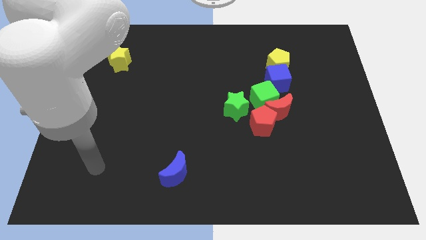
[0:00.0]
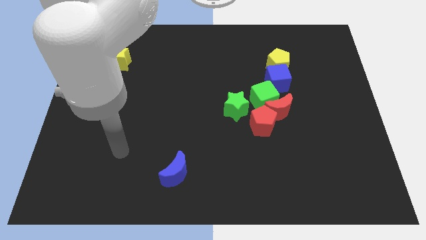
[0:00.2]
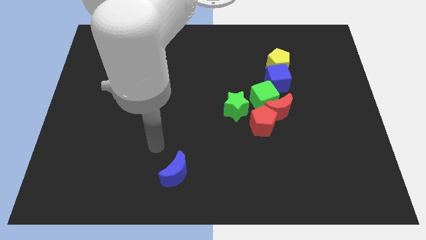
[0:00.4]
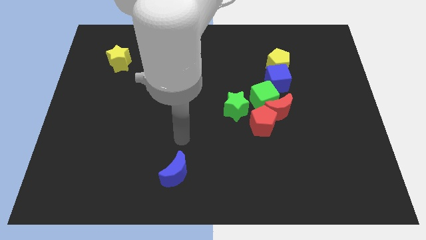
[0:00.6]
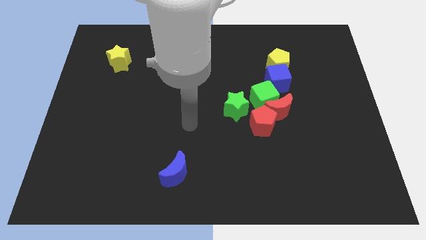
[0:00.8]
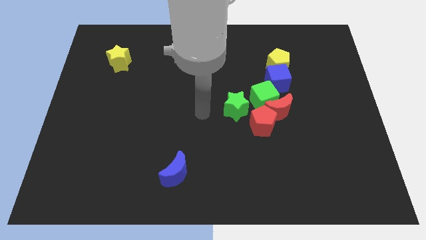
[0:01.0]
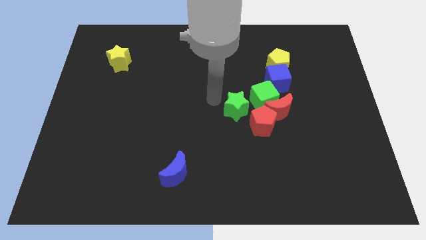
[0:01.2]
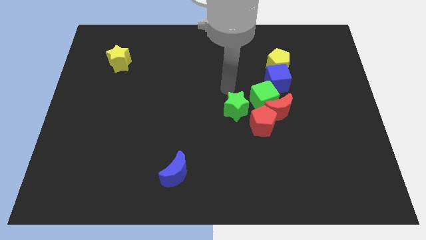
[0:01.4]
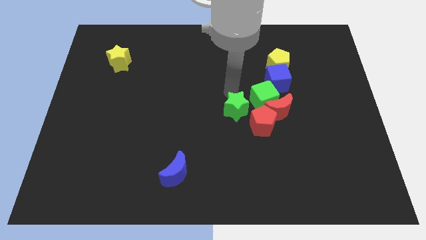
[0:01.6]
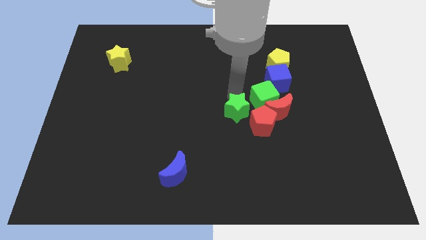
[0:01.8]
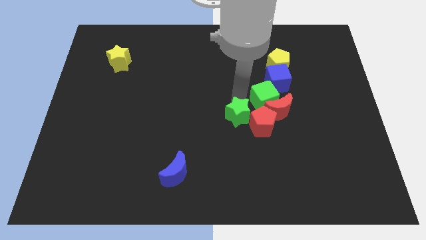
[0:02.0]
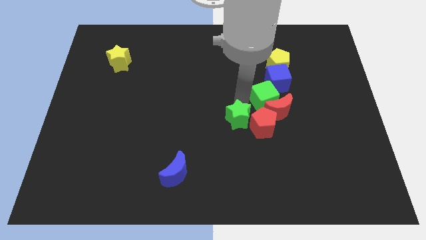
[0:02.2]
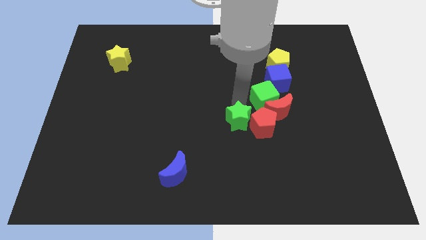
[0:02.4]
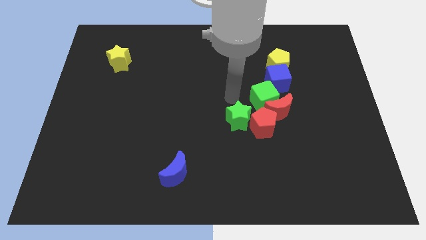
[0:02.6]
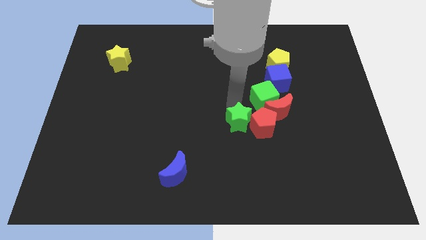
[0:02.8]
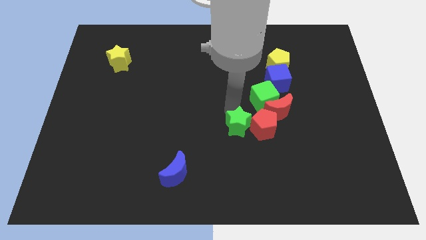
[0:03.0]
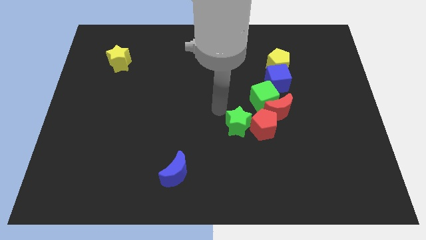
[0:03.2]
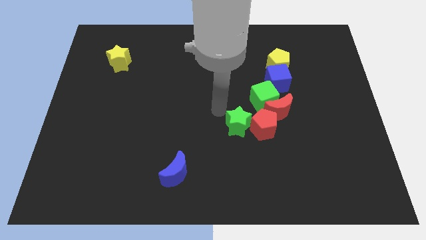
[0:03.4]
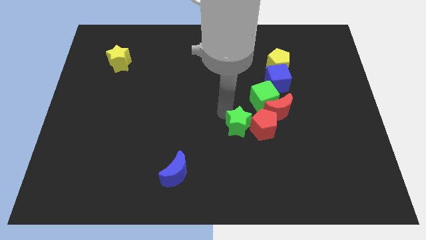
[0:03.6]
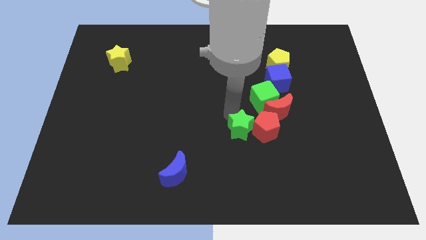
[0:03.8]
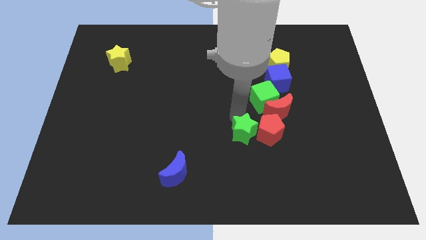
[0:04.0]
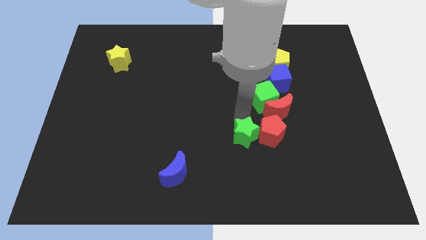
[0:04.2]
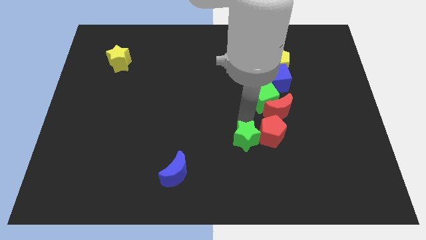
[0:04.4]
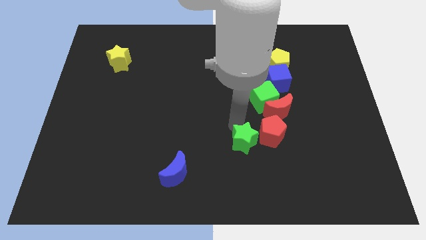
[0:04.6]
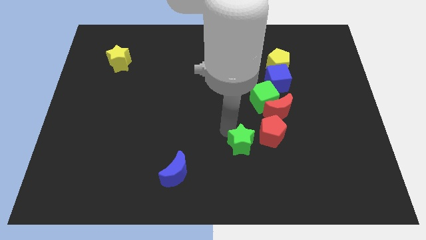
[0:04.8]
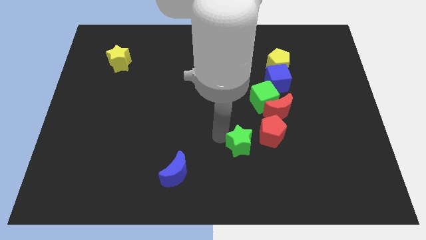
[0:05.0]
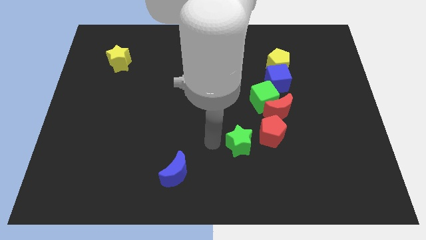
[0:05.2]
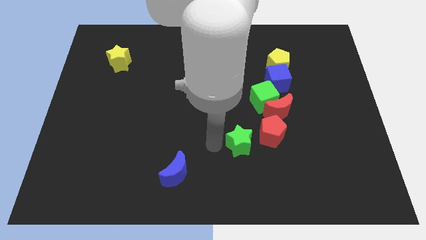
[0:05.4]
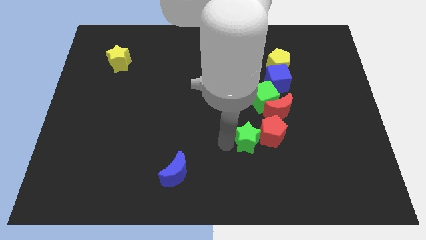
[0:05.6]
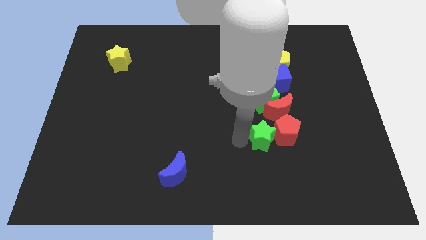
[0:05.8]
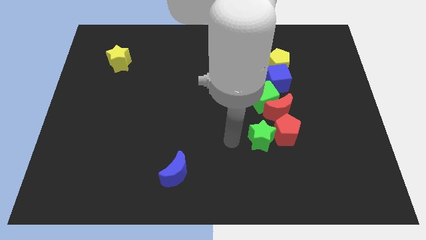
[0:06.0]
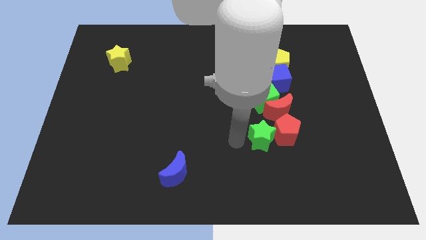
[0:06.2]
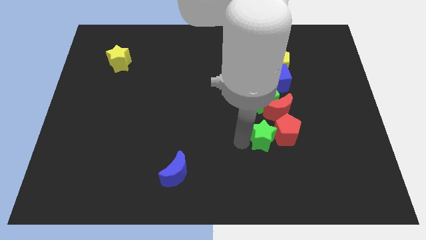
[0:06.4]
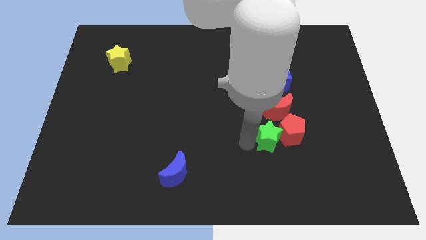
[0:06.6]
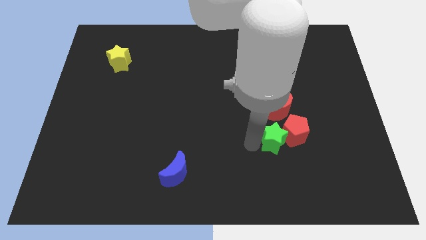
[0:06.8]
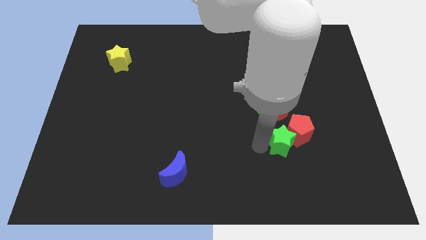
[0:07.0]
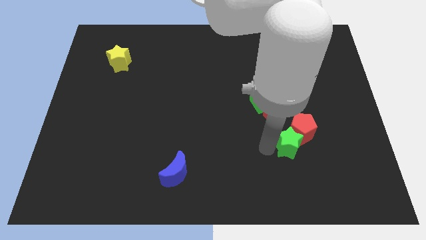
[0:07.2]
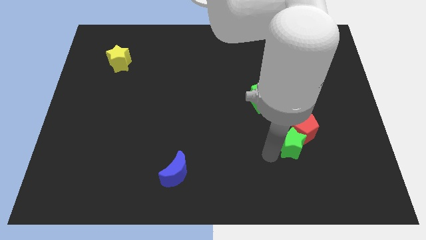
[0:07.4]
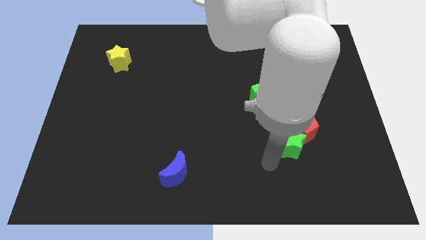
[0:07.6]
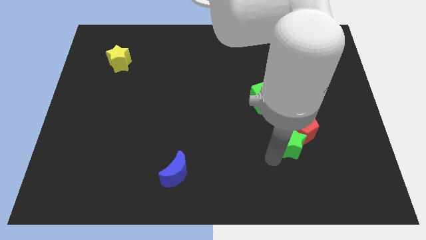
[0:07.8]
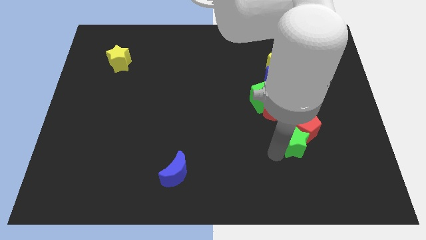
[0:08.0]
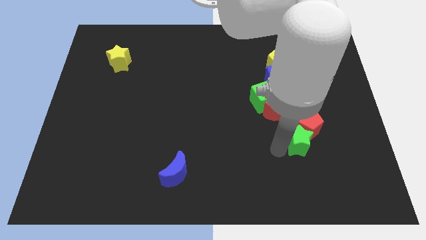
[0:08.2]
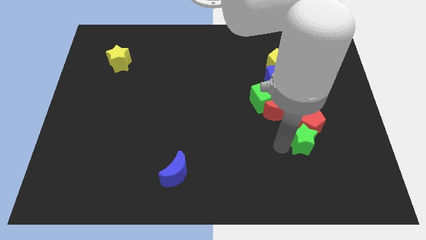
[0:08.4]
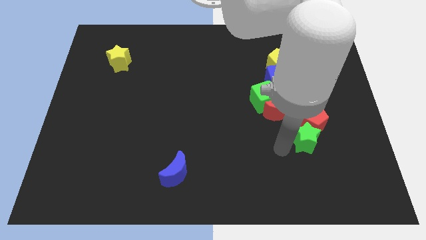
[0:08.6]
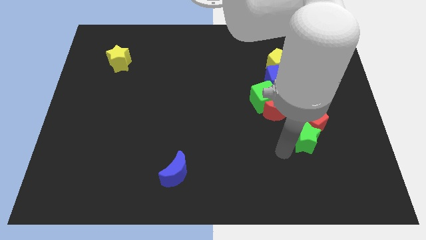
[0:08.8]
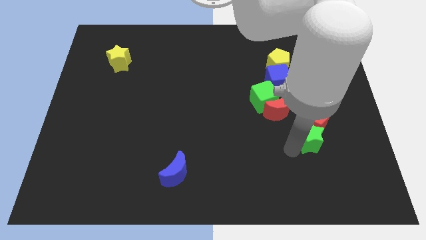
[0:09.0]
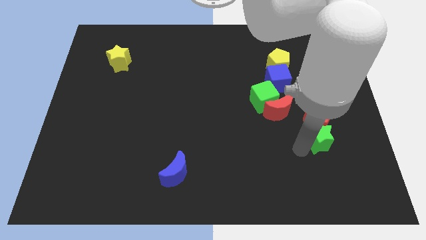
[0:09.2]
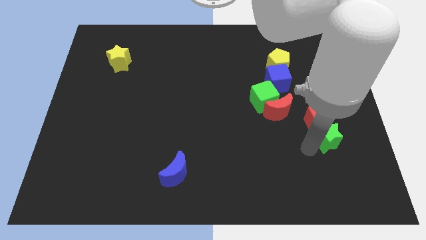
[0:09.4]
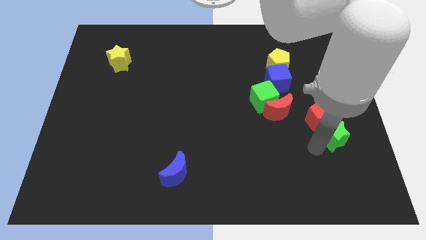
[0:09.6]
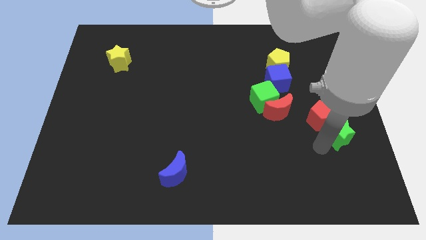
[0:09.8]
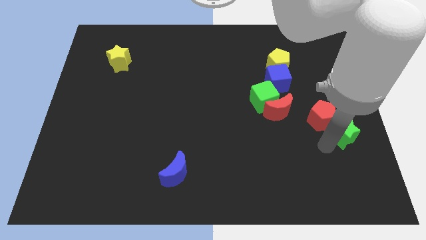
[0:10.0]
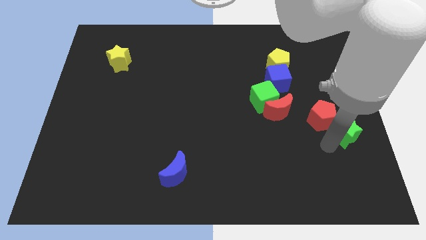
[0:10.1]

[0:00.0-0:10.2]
put the green star to the center right

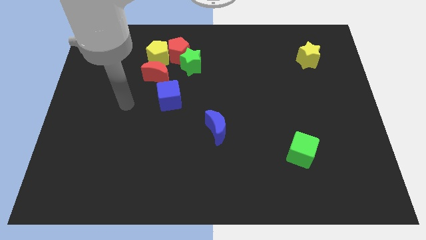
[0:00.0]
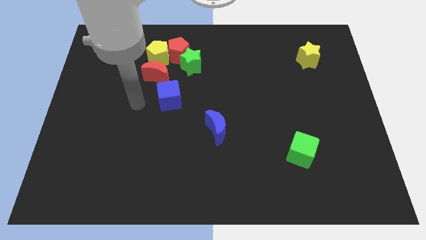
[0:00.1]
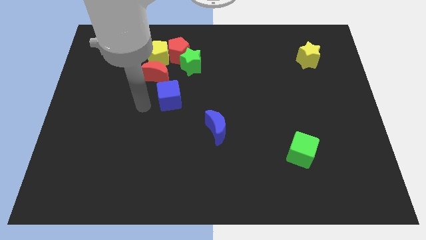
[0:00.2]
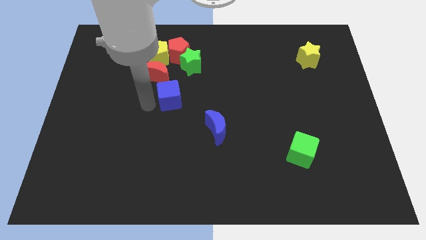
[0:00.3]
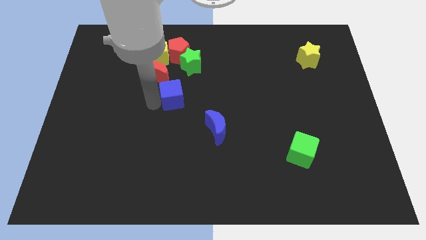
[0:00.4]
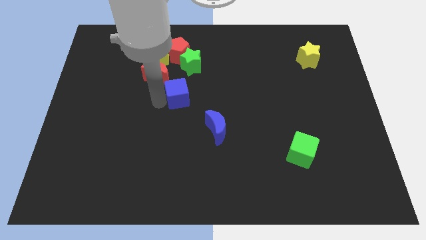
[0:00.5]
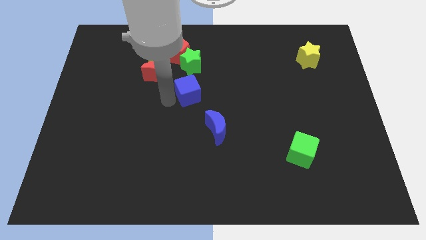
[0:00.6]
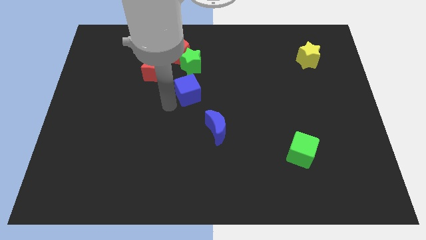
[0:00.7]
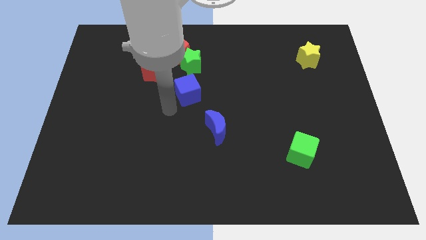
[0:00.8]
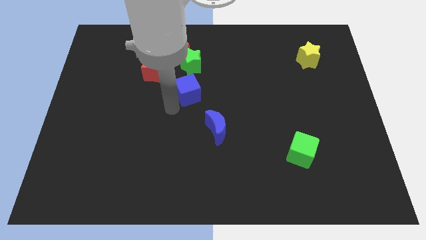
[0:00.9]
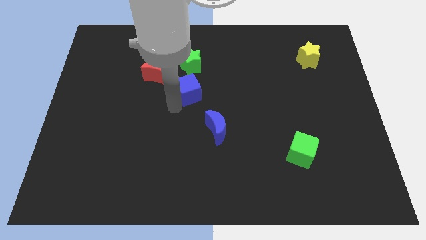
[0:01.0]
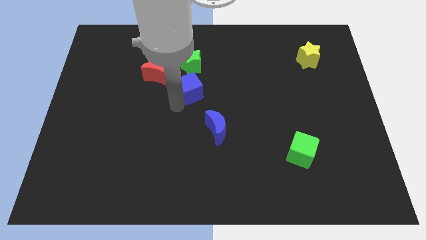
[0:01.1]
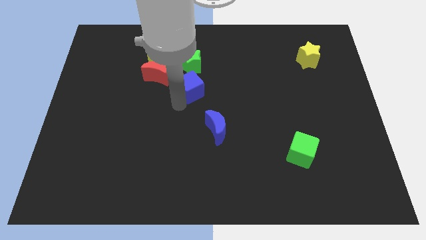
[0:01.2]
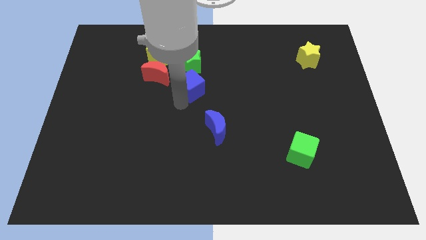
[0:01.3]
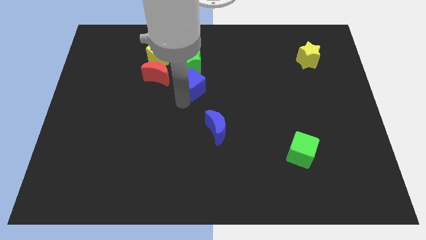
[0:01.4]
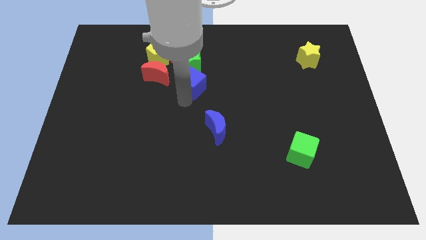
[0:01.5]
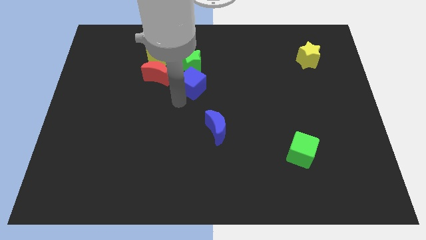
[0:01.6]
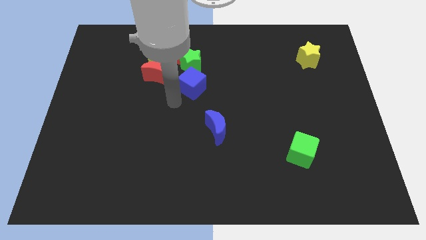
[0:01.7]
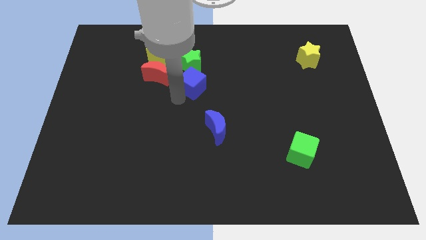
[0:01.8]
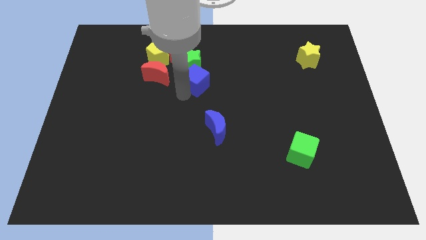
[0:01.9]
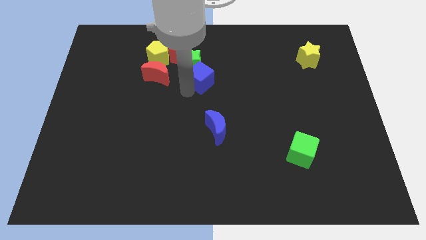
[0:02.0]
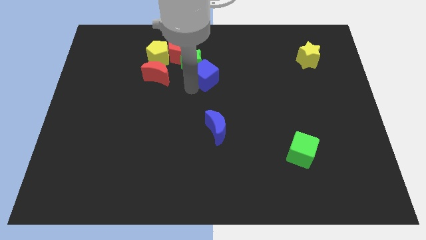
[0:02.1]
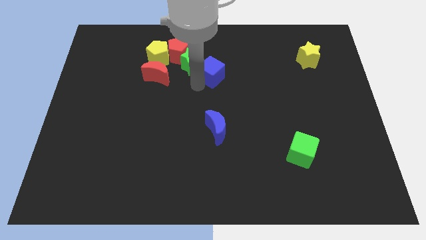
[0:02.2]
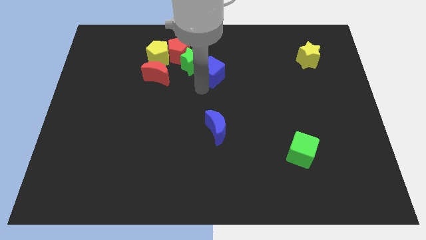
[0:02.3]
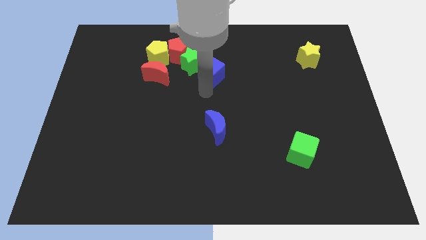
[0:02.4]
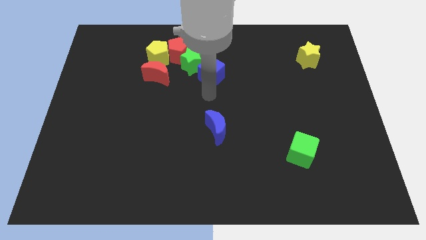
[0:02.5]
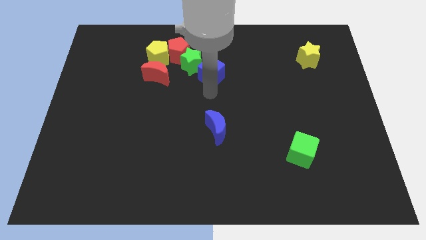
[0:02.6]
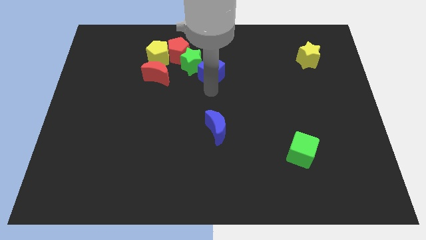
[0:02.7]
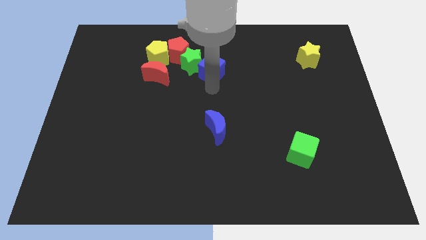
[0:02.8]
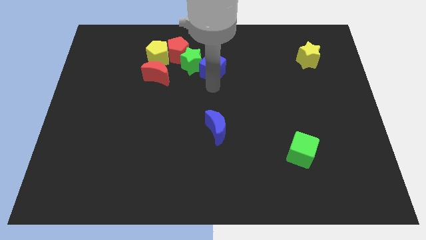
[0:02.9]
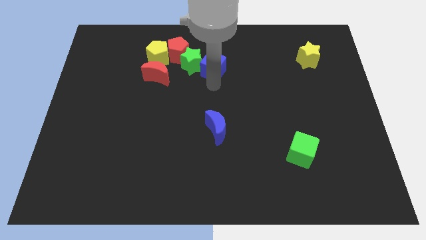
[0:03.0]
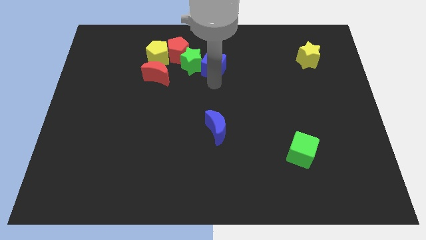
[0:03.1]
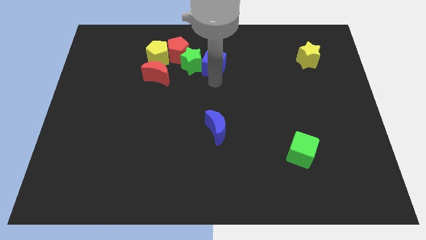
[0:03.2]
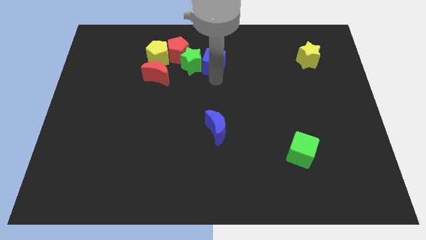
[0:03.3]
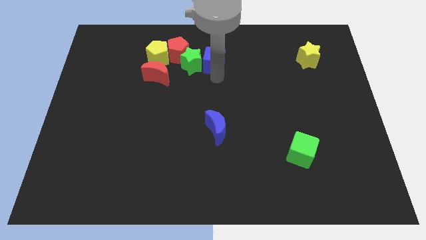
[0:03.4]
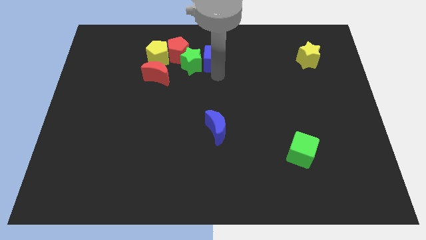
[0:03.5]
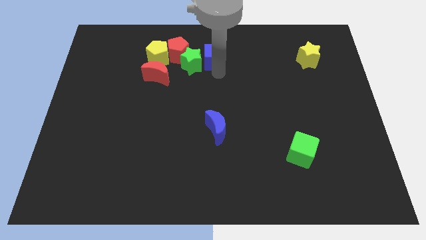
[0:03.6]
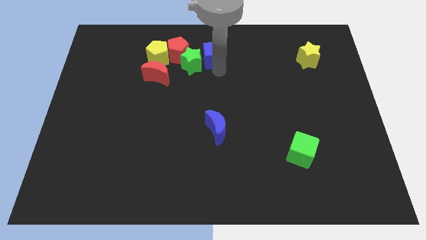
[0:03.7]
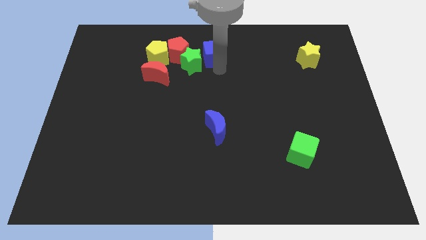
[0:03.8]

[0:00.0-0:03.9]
slide the blue cube to the top side
